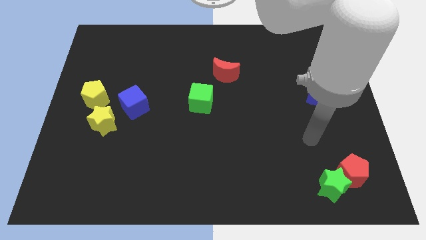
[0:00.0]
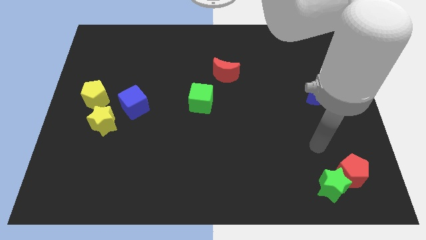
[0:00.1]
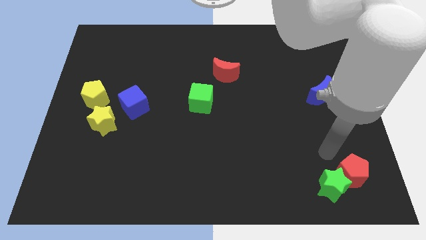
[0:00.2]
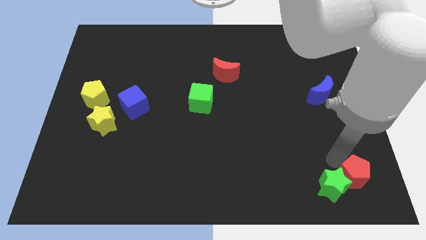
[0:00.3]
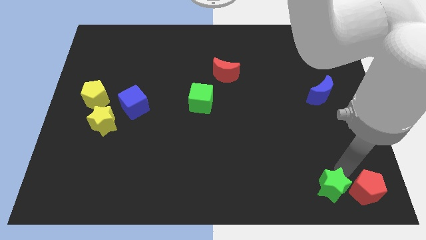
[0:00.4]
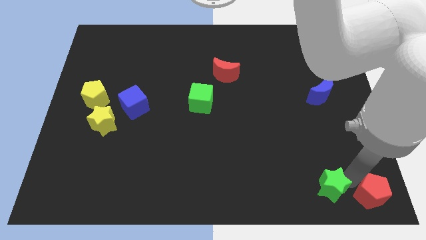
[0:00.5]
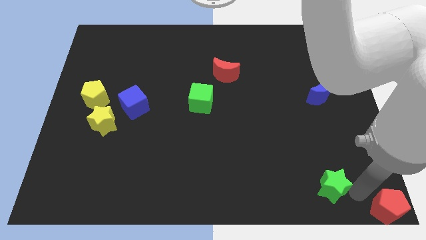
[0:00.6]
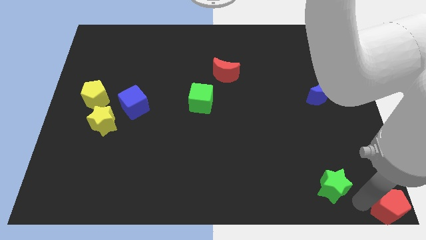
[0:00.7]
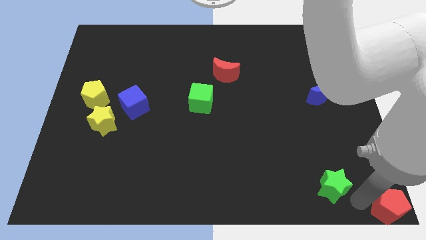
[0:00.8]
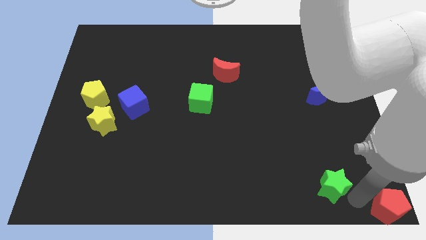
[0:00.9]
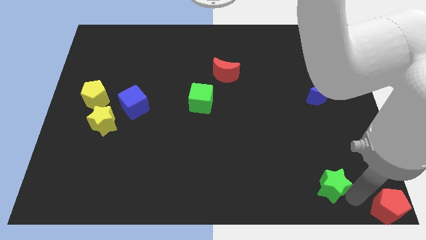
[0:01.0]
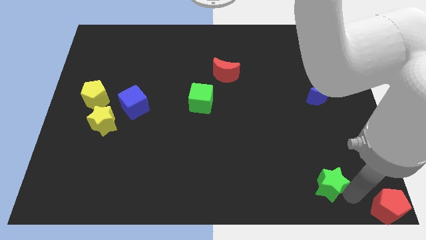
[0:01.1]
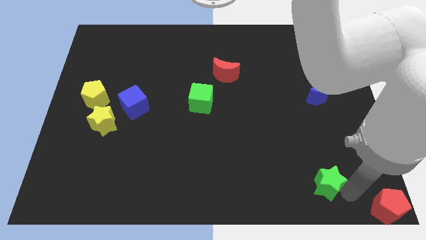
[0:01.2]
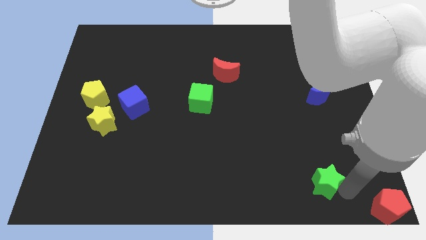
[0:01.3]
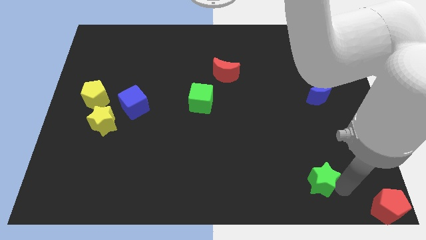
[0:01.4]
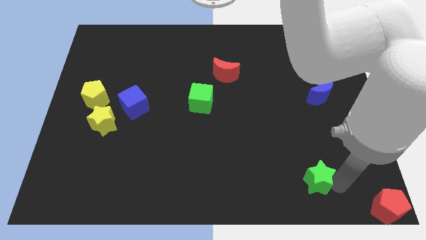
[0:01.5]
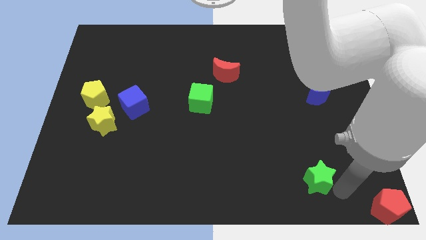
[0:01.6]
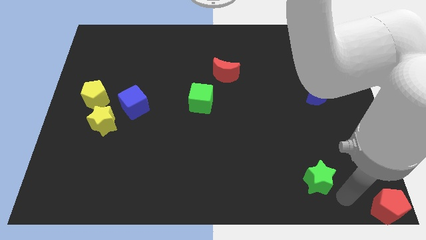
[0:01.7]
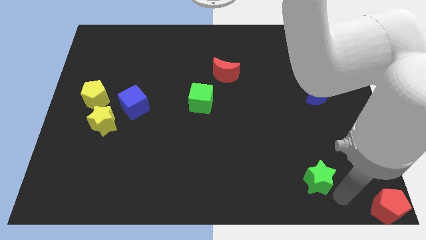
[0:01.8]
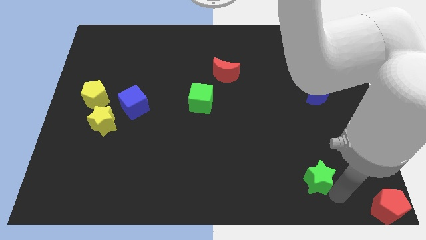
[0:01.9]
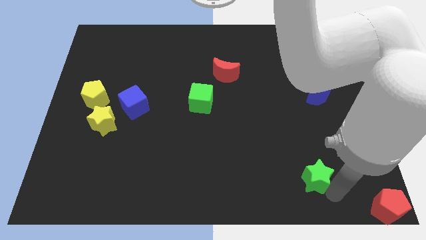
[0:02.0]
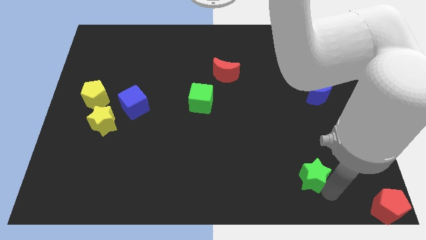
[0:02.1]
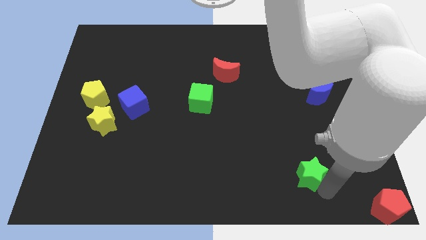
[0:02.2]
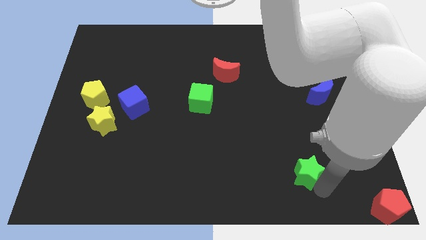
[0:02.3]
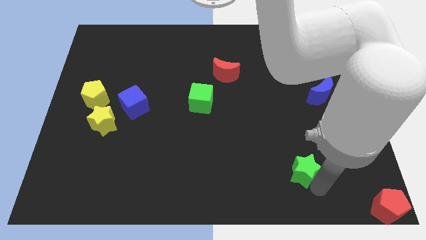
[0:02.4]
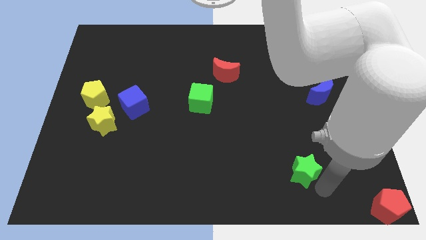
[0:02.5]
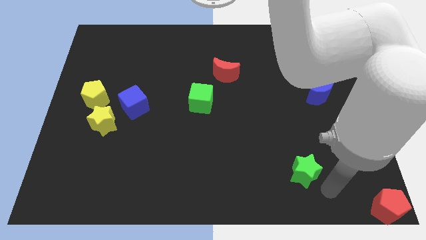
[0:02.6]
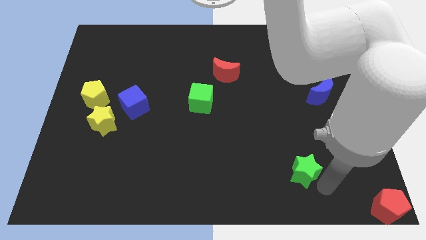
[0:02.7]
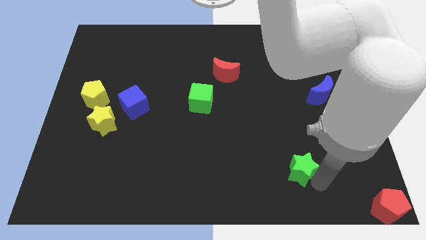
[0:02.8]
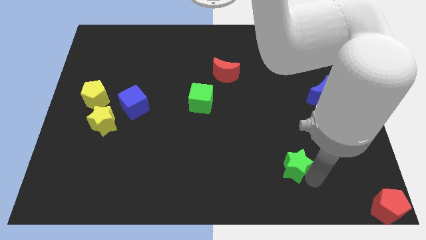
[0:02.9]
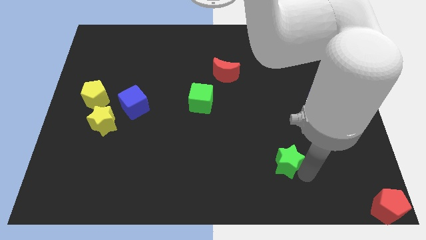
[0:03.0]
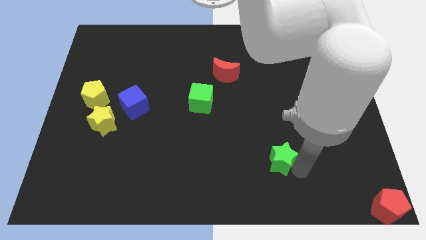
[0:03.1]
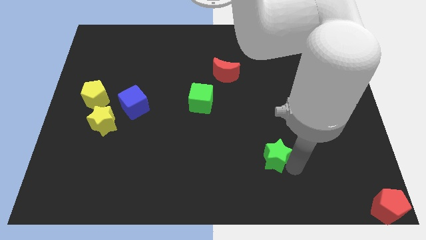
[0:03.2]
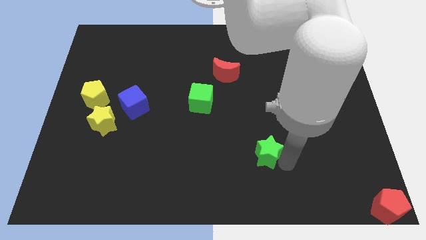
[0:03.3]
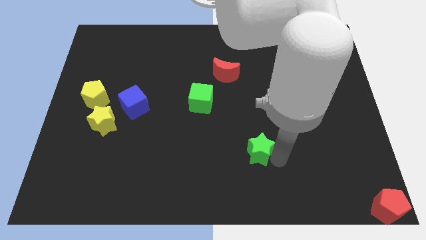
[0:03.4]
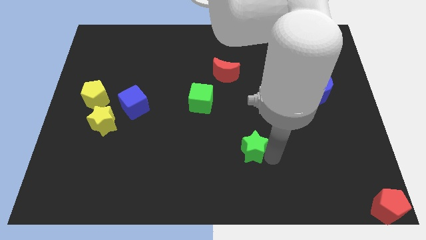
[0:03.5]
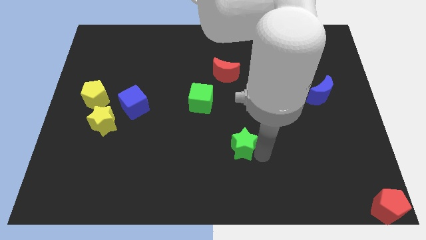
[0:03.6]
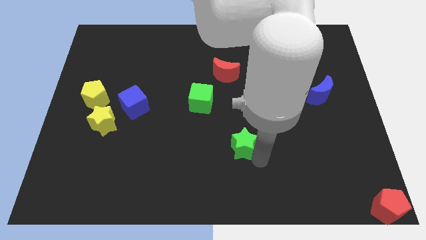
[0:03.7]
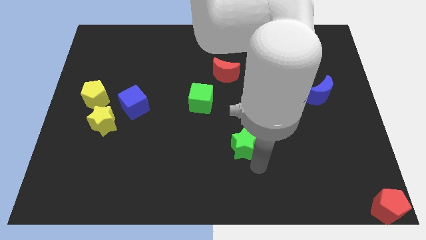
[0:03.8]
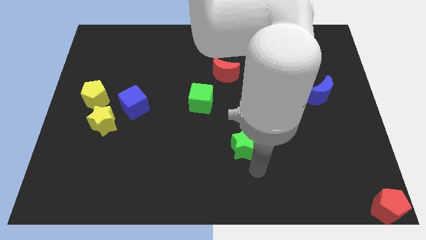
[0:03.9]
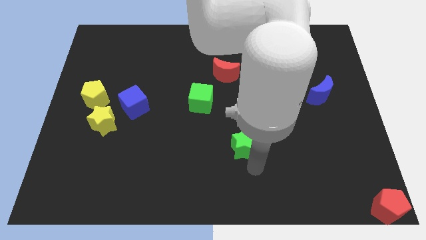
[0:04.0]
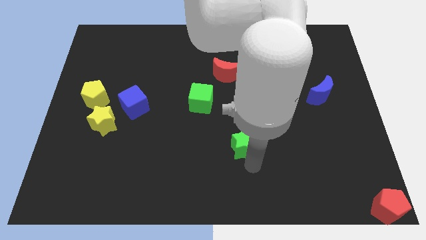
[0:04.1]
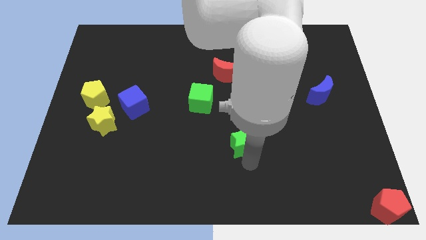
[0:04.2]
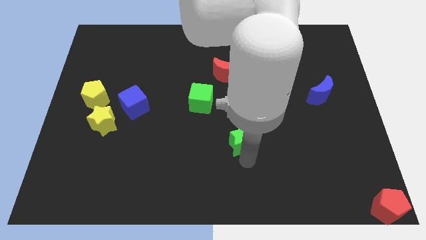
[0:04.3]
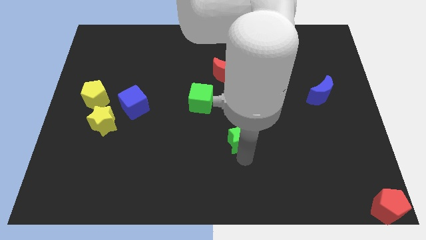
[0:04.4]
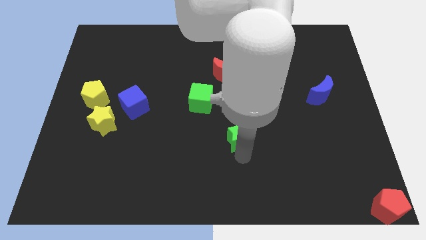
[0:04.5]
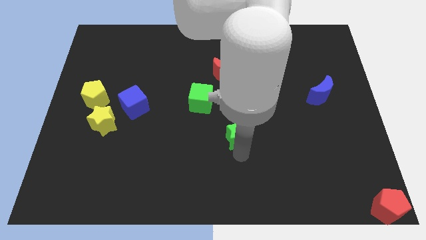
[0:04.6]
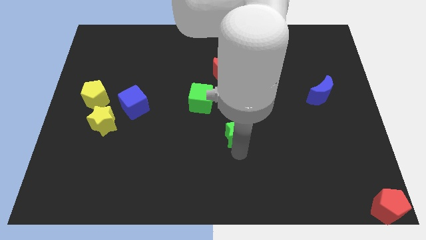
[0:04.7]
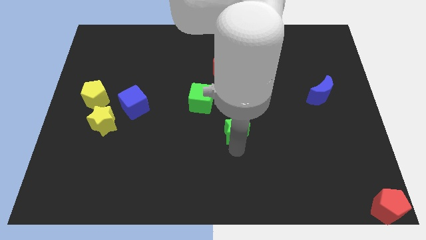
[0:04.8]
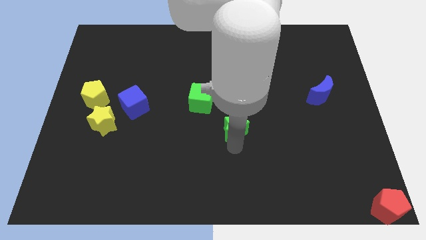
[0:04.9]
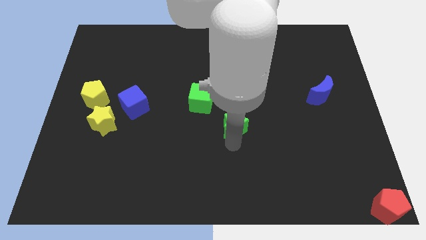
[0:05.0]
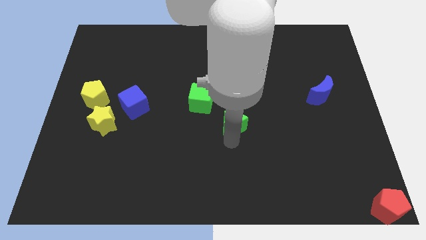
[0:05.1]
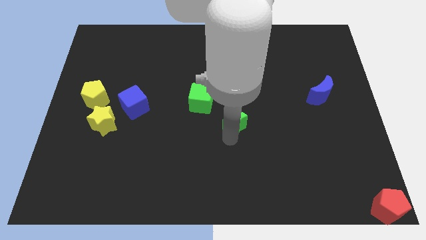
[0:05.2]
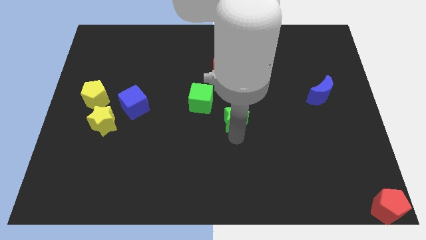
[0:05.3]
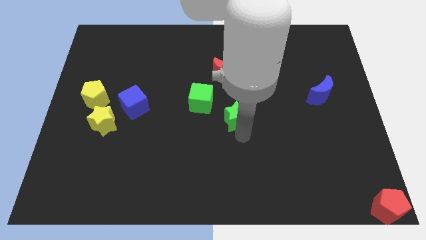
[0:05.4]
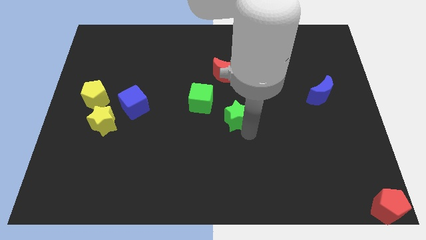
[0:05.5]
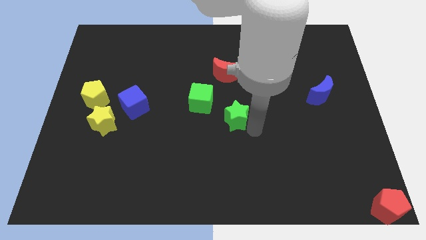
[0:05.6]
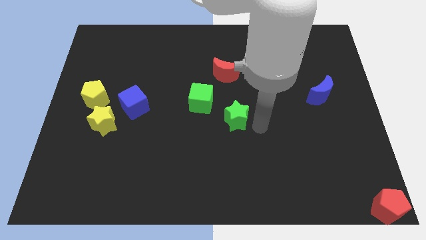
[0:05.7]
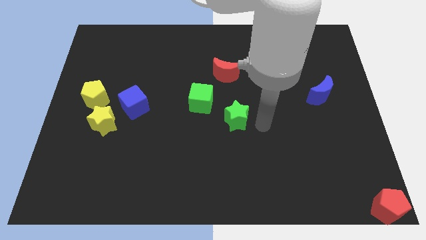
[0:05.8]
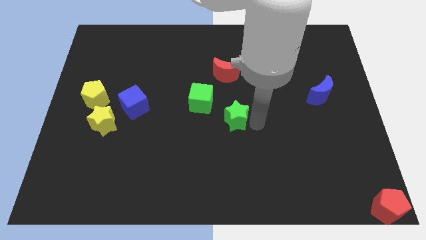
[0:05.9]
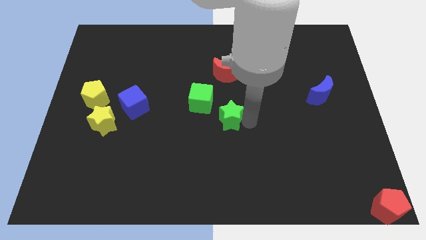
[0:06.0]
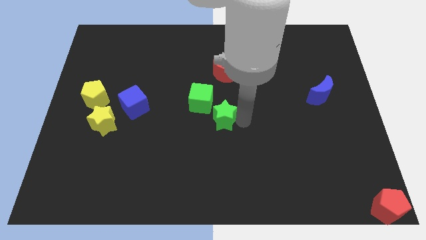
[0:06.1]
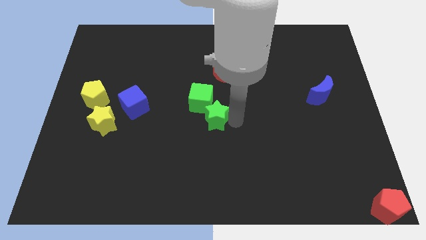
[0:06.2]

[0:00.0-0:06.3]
put the green star next to the green cube
